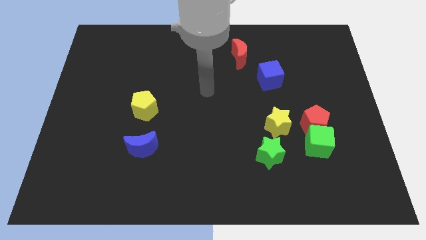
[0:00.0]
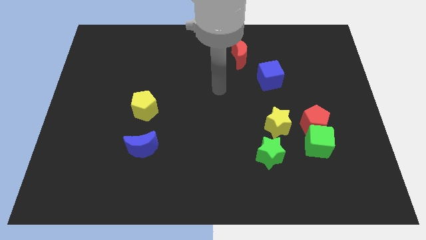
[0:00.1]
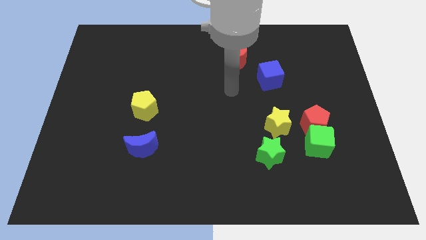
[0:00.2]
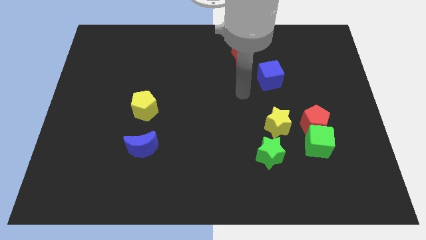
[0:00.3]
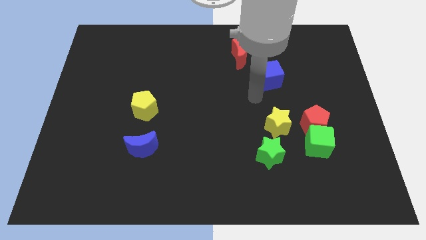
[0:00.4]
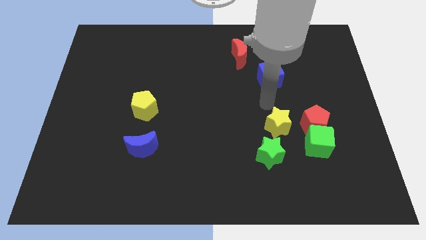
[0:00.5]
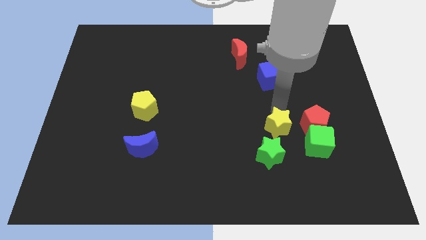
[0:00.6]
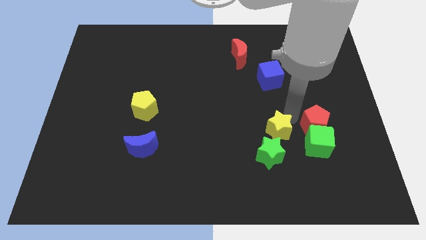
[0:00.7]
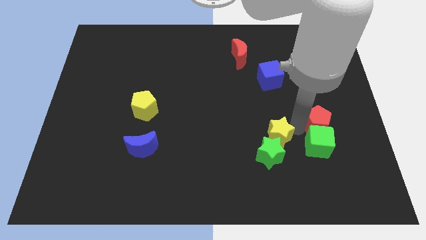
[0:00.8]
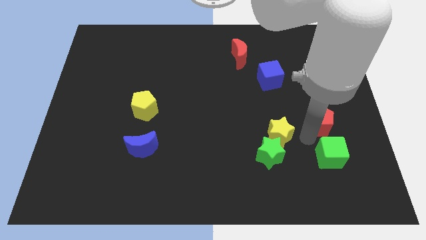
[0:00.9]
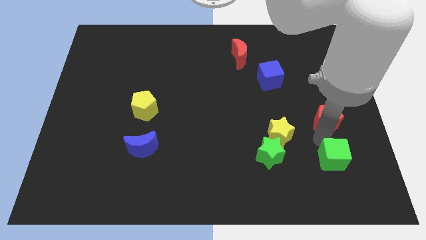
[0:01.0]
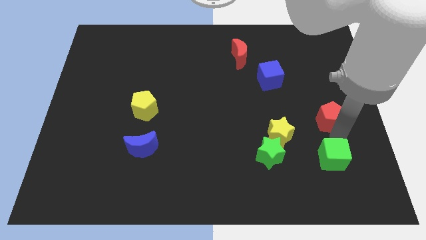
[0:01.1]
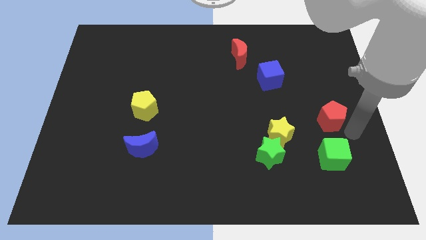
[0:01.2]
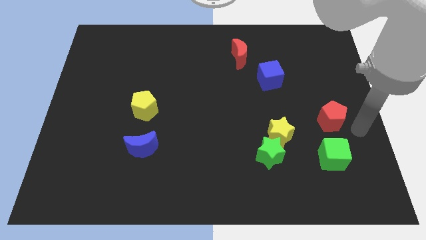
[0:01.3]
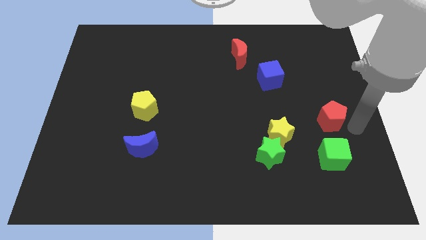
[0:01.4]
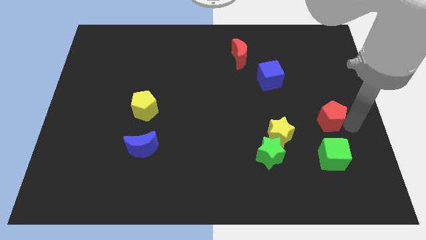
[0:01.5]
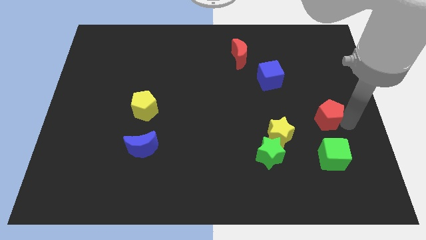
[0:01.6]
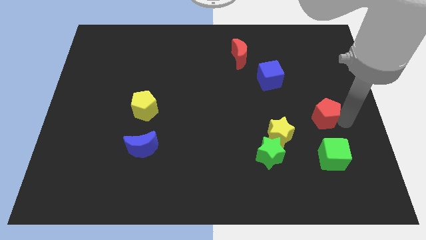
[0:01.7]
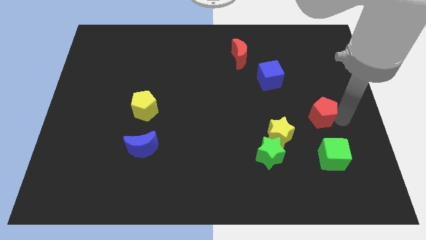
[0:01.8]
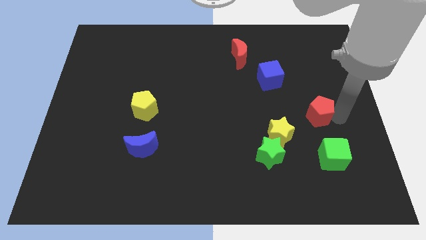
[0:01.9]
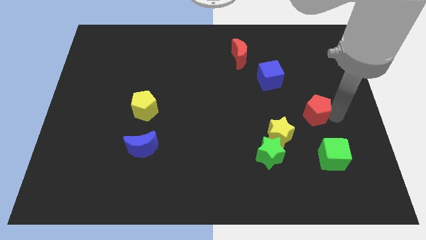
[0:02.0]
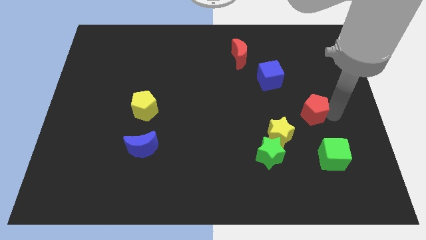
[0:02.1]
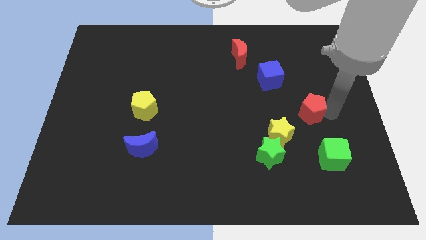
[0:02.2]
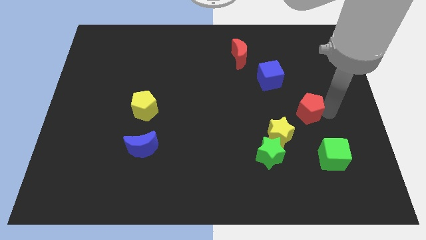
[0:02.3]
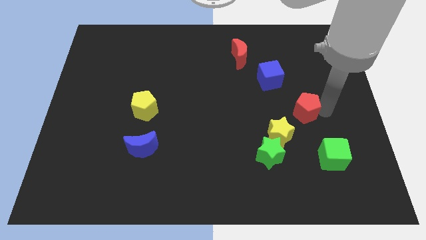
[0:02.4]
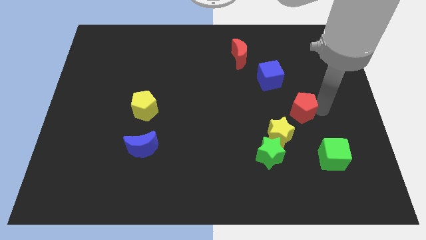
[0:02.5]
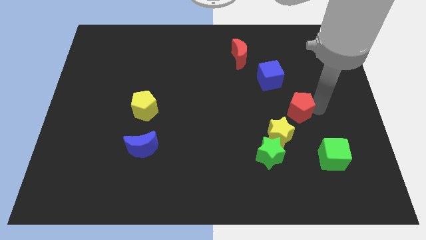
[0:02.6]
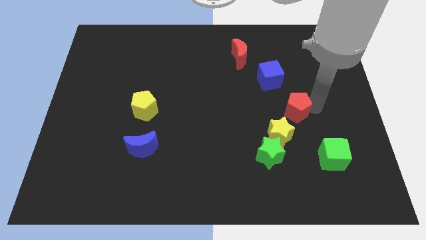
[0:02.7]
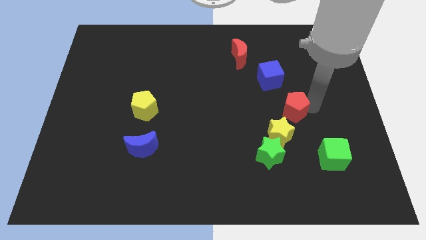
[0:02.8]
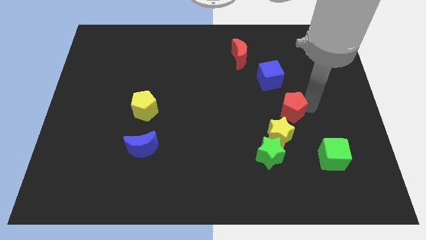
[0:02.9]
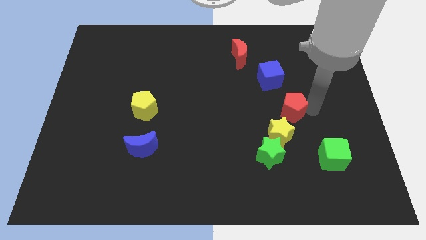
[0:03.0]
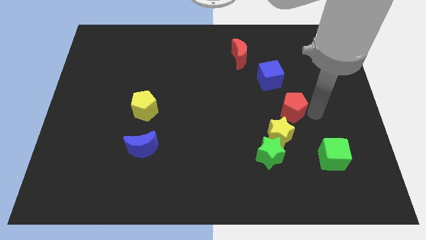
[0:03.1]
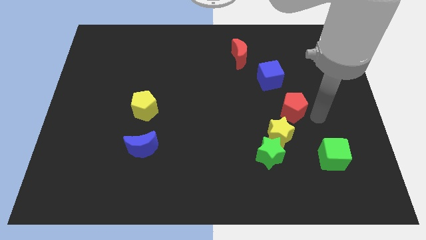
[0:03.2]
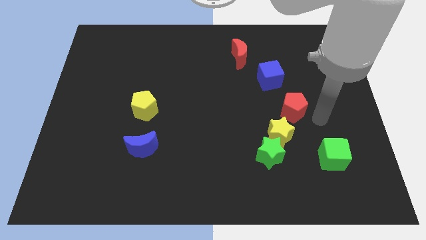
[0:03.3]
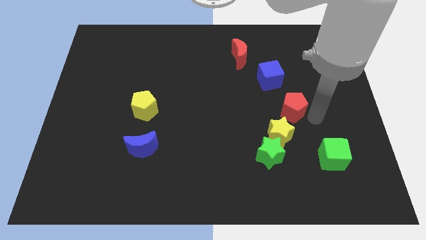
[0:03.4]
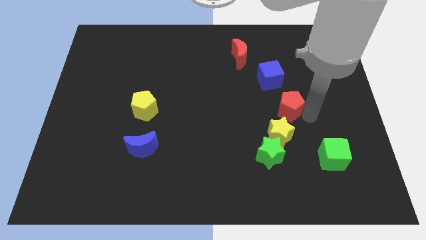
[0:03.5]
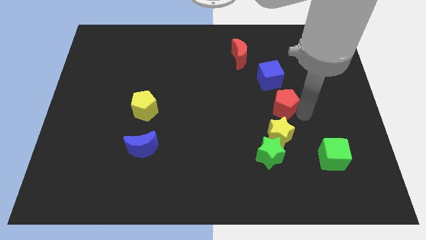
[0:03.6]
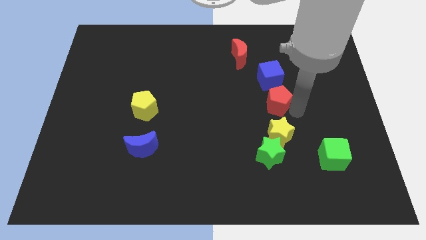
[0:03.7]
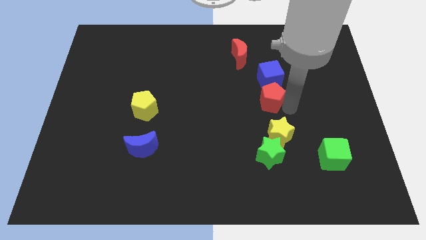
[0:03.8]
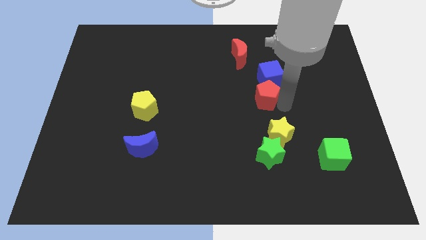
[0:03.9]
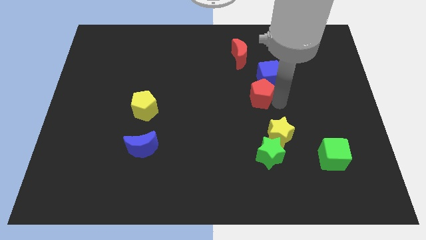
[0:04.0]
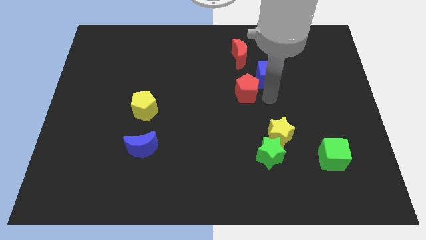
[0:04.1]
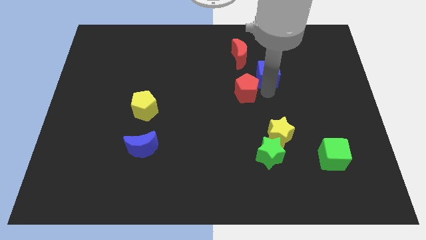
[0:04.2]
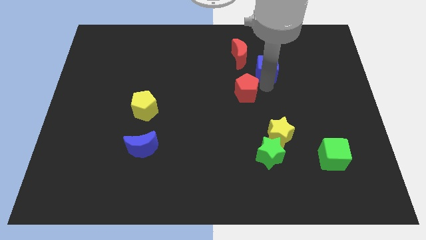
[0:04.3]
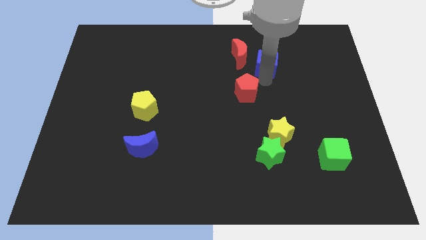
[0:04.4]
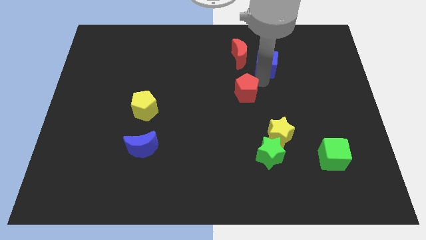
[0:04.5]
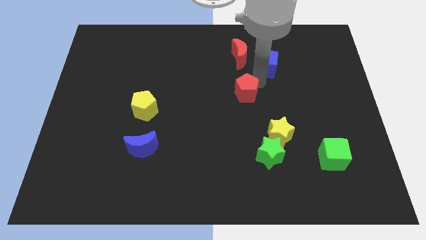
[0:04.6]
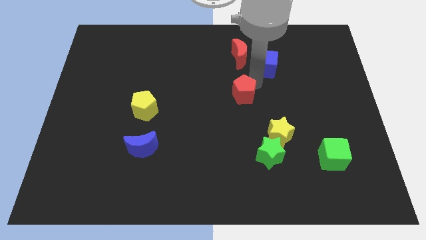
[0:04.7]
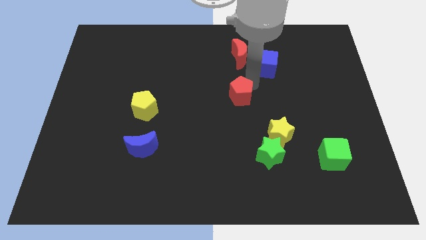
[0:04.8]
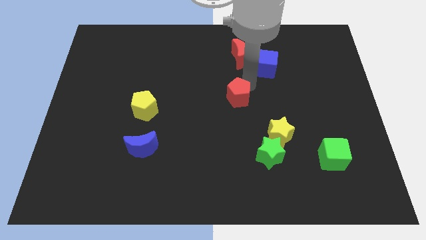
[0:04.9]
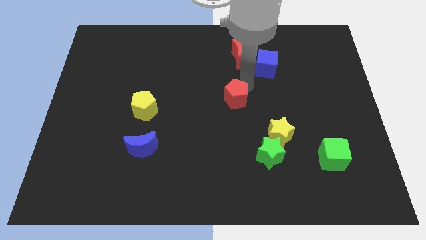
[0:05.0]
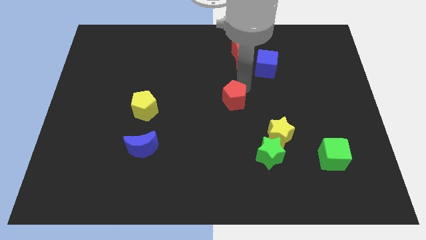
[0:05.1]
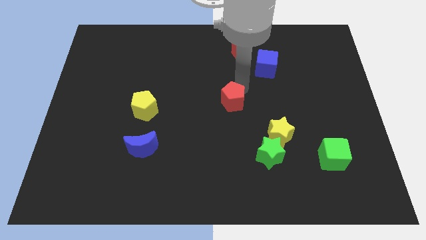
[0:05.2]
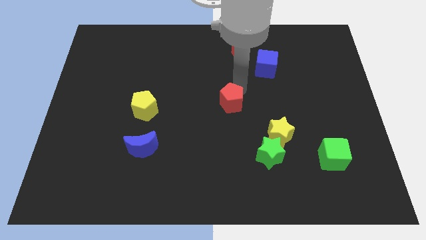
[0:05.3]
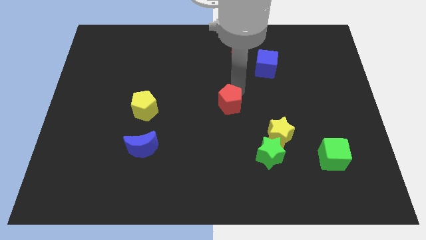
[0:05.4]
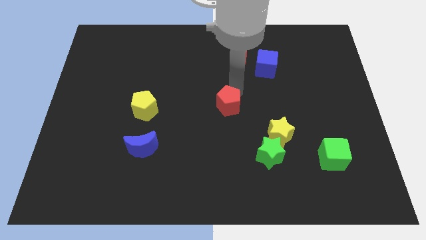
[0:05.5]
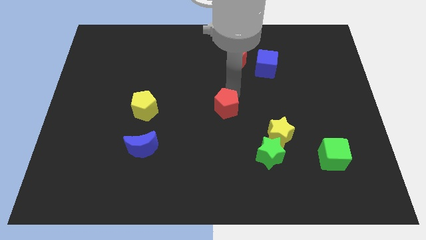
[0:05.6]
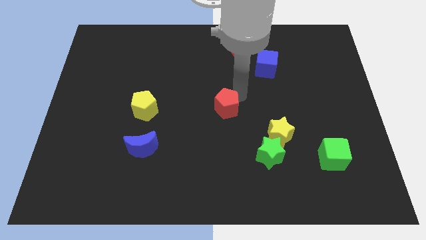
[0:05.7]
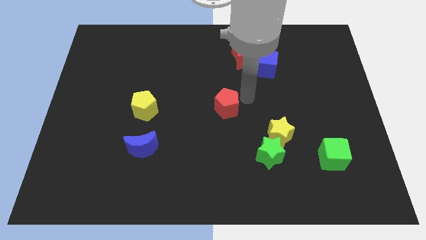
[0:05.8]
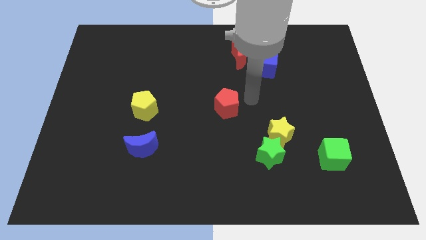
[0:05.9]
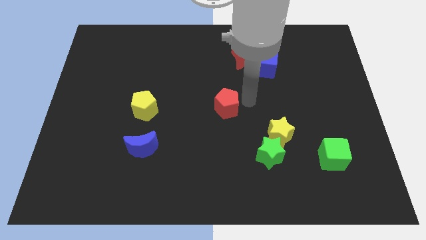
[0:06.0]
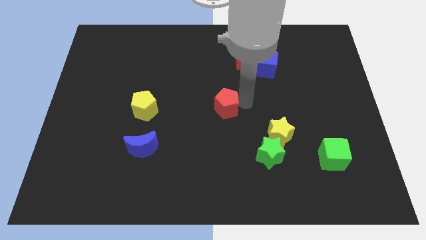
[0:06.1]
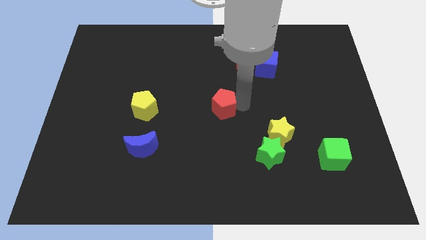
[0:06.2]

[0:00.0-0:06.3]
push the red pentagon left

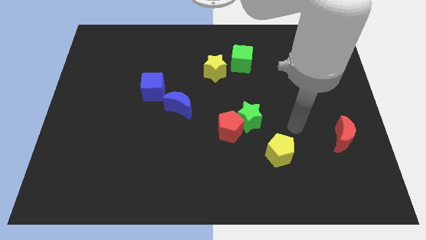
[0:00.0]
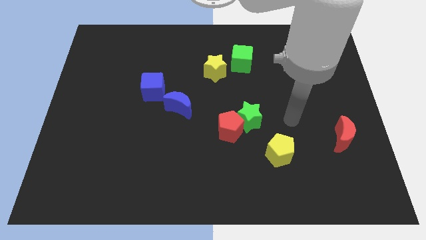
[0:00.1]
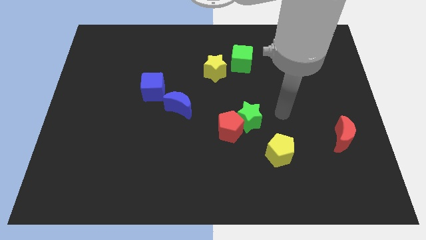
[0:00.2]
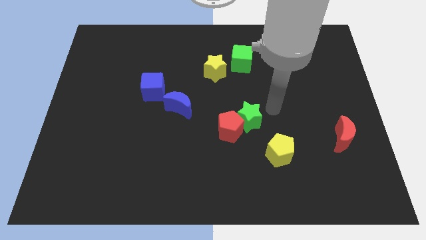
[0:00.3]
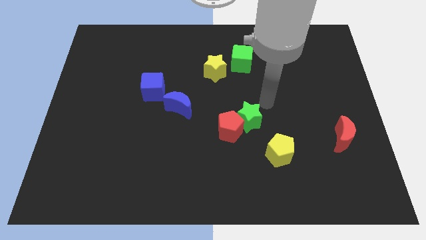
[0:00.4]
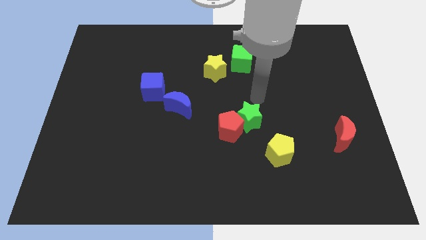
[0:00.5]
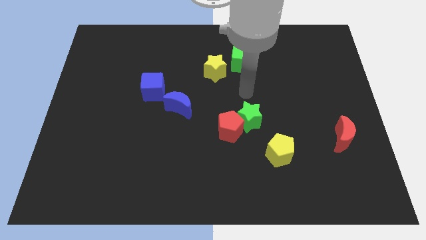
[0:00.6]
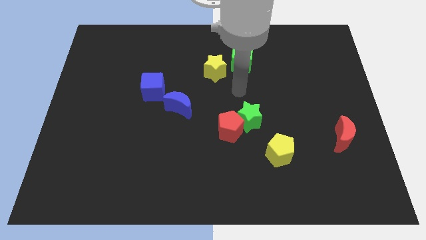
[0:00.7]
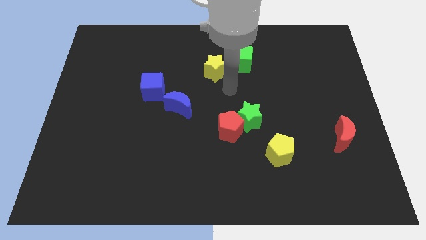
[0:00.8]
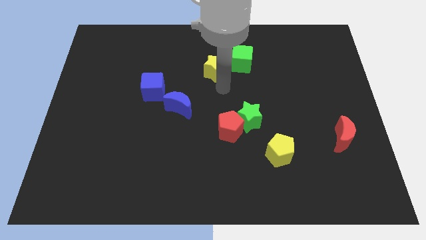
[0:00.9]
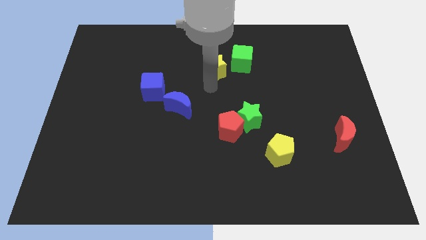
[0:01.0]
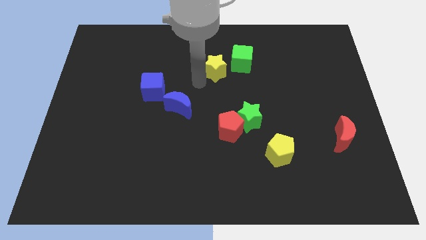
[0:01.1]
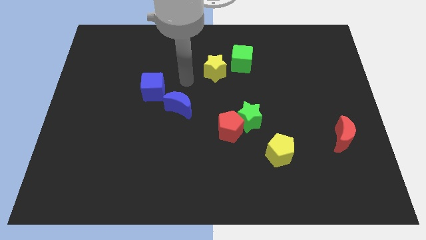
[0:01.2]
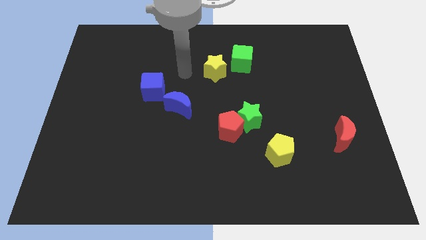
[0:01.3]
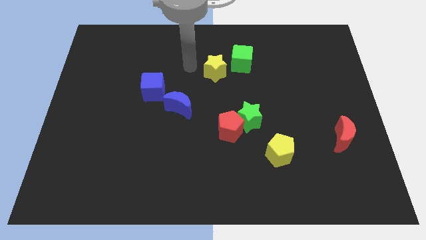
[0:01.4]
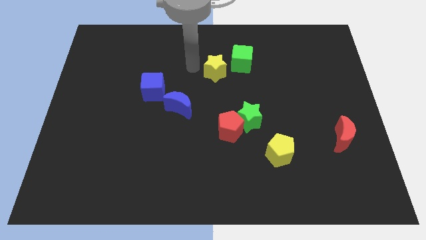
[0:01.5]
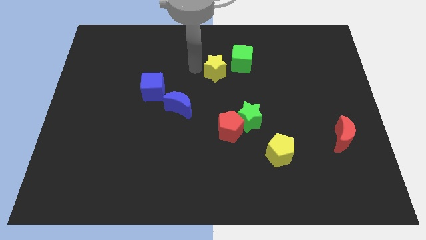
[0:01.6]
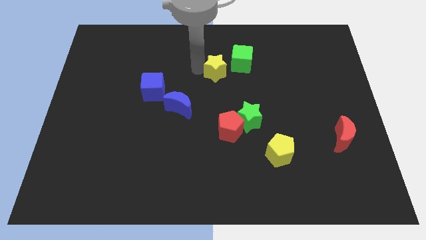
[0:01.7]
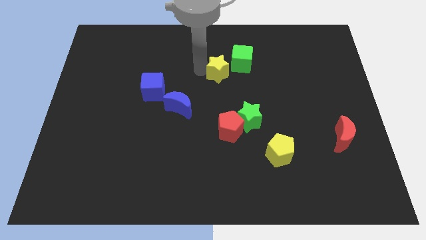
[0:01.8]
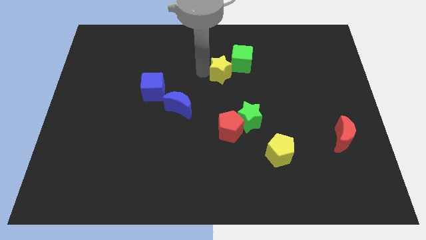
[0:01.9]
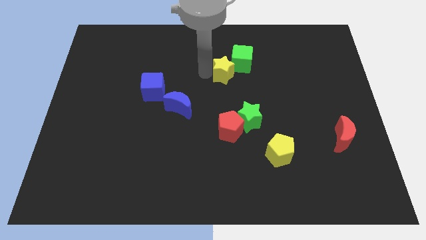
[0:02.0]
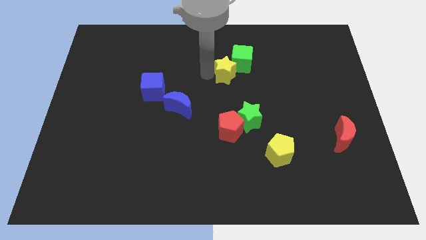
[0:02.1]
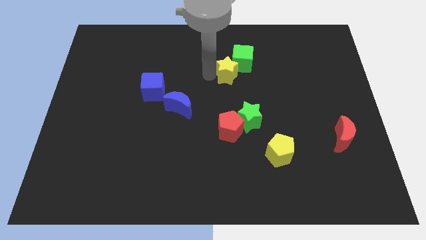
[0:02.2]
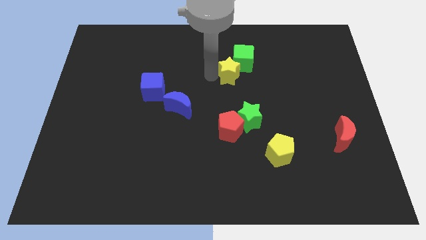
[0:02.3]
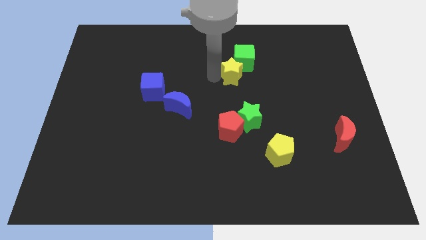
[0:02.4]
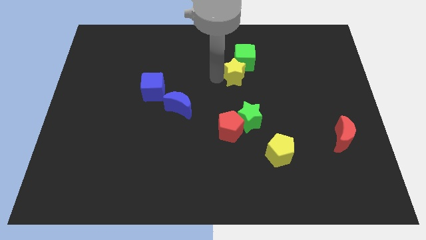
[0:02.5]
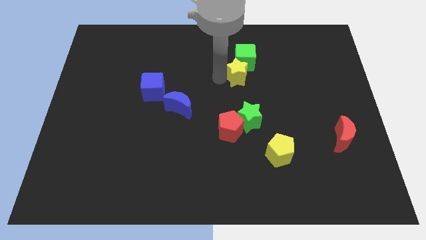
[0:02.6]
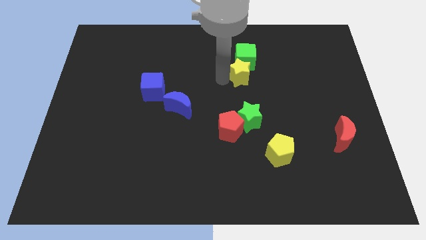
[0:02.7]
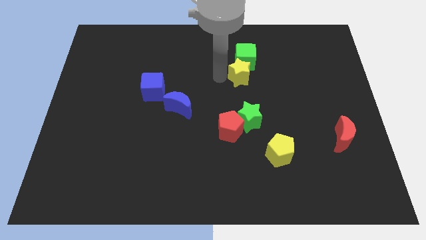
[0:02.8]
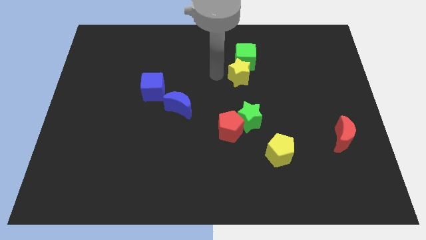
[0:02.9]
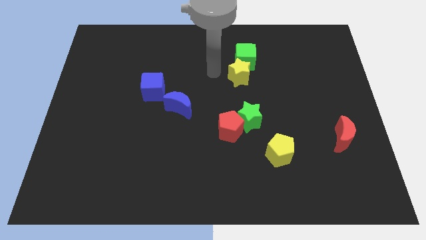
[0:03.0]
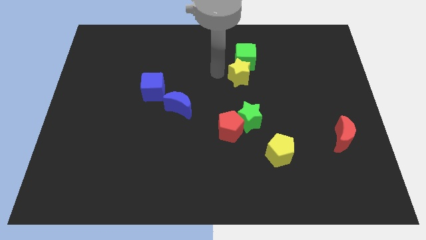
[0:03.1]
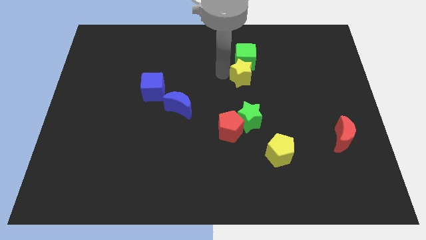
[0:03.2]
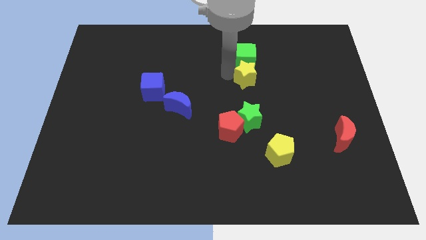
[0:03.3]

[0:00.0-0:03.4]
slide the yellow star right a little bit
